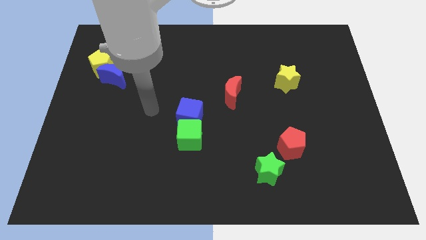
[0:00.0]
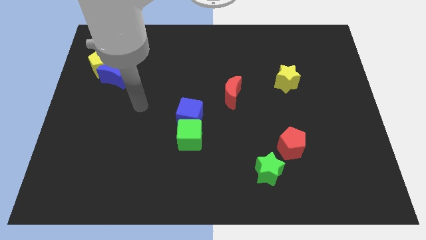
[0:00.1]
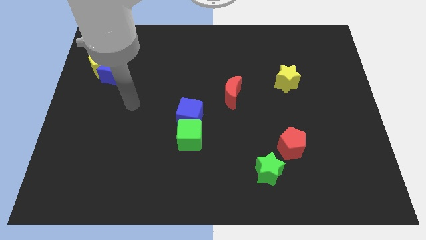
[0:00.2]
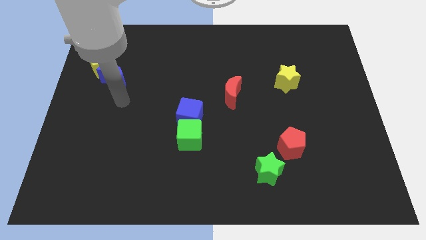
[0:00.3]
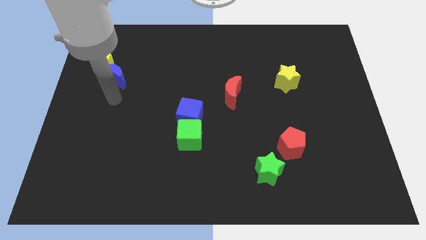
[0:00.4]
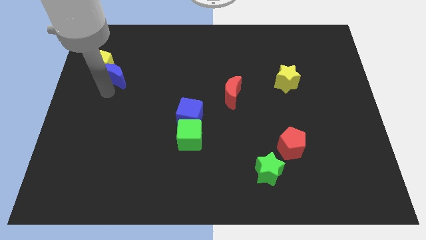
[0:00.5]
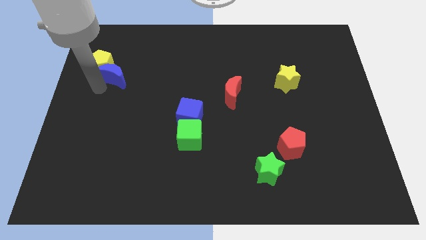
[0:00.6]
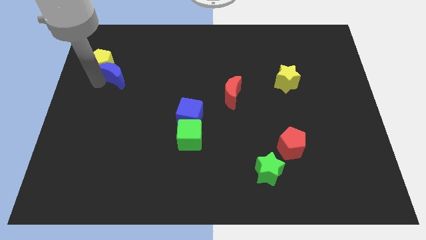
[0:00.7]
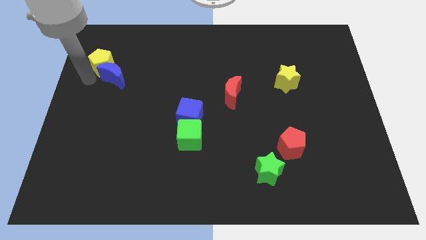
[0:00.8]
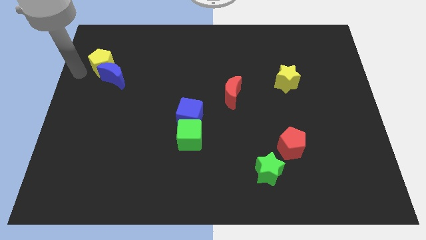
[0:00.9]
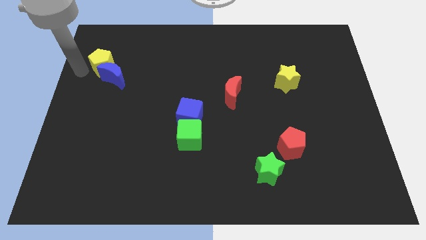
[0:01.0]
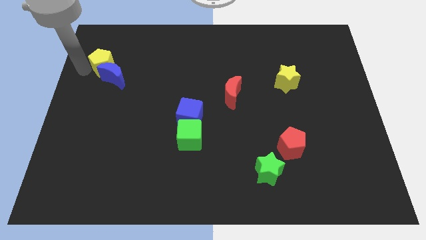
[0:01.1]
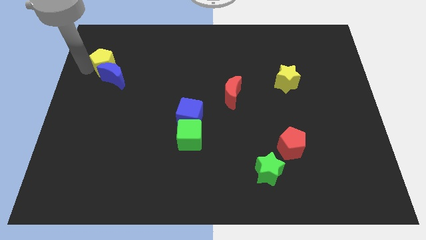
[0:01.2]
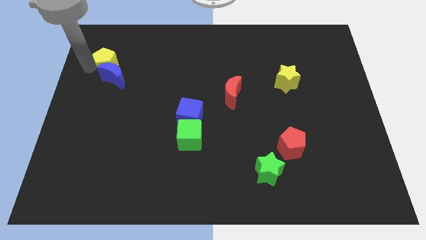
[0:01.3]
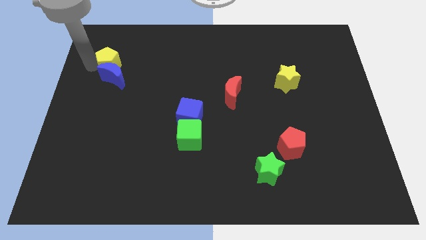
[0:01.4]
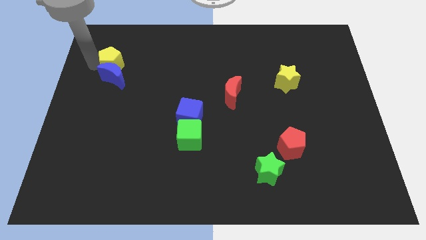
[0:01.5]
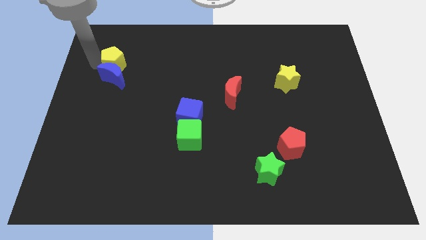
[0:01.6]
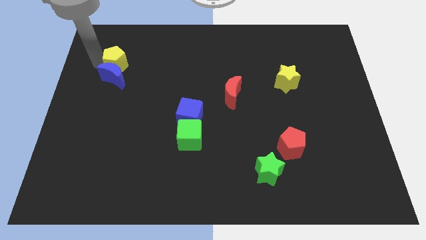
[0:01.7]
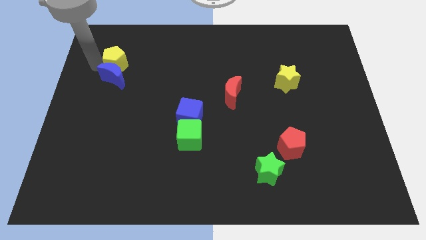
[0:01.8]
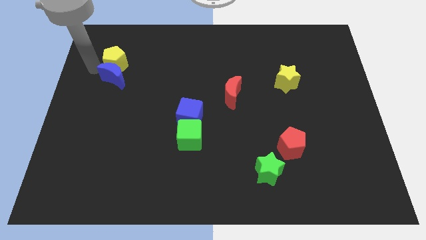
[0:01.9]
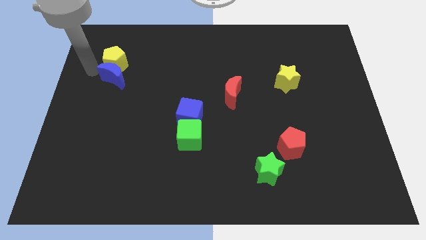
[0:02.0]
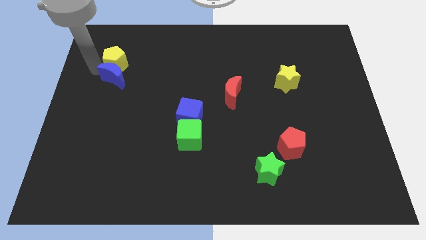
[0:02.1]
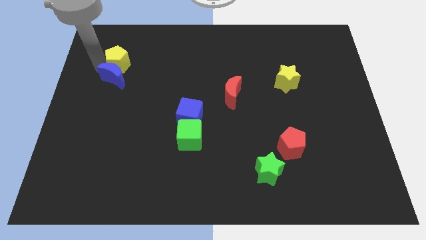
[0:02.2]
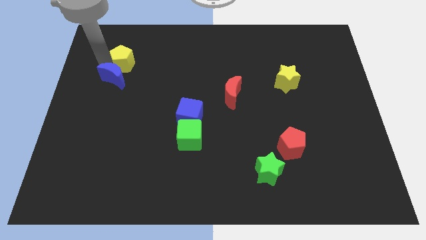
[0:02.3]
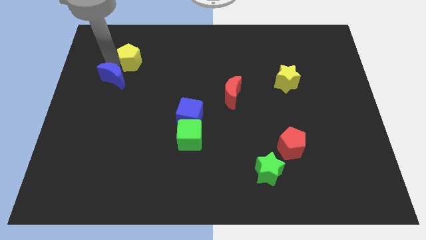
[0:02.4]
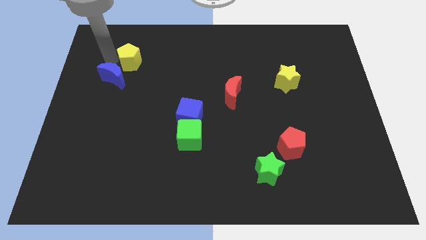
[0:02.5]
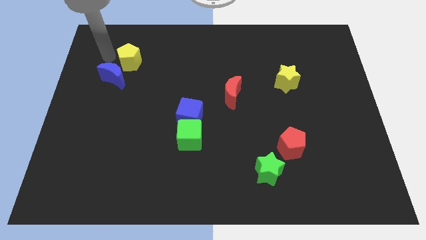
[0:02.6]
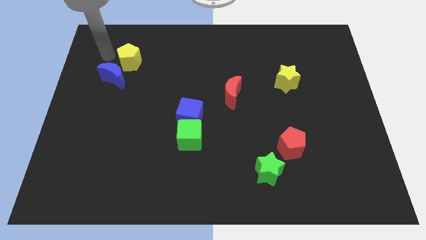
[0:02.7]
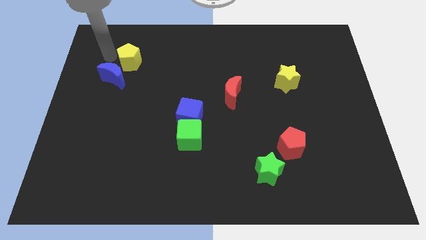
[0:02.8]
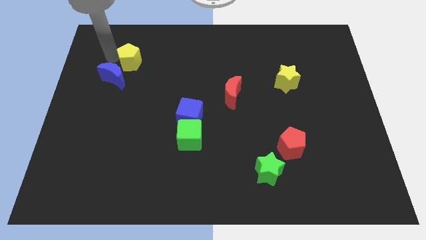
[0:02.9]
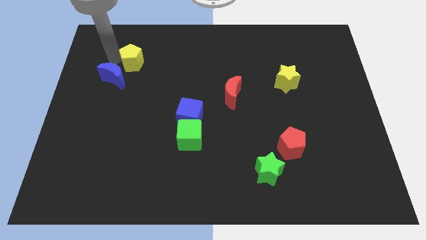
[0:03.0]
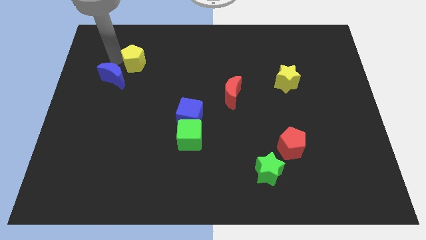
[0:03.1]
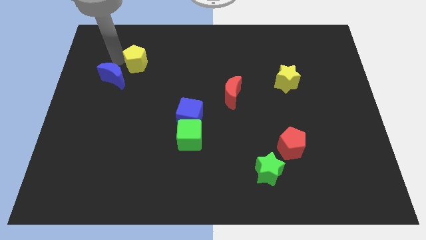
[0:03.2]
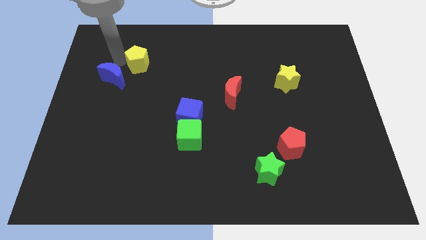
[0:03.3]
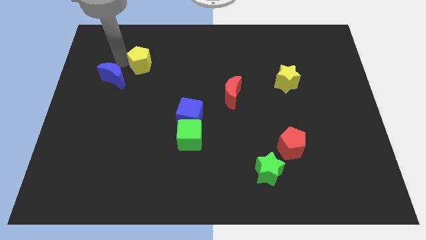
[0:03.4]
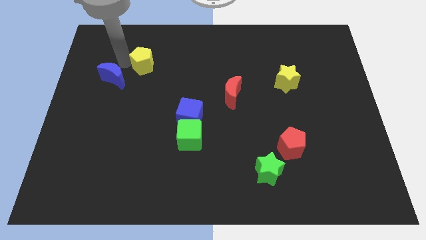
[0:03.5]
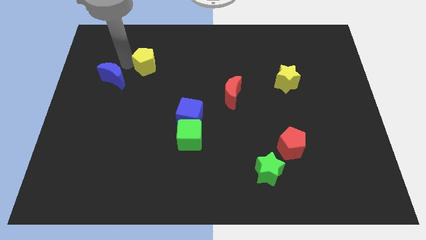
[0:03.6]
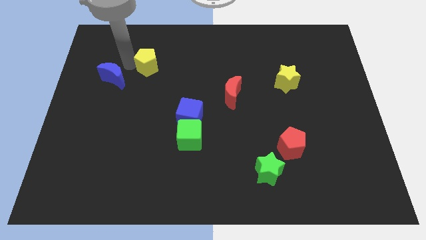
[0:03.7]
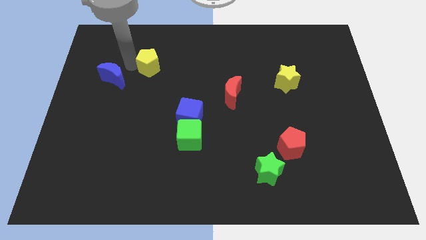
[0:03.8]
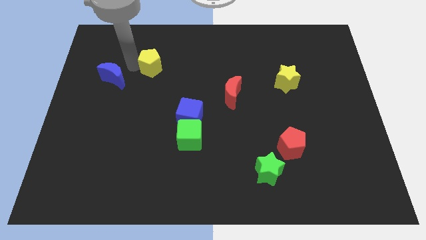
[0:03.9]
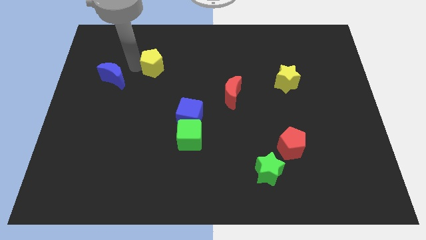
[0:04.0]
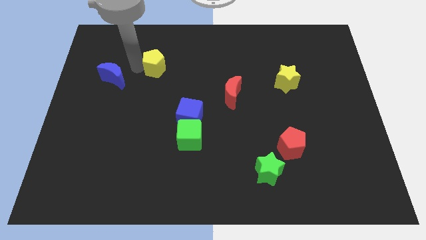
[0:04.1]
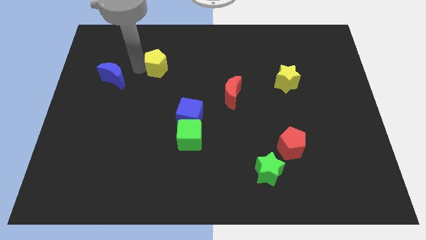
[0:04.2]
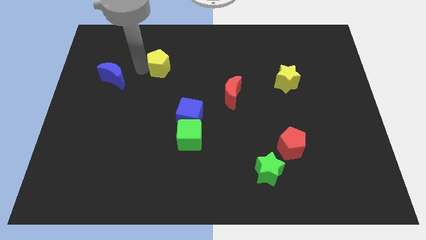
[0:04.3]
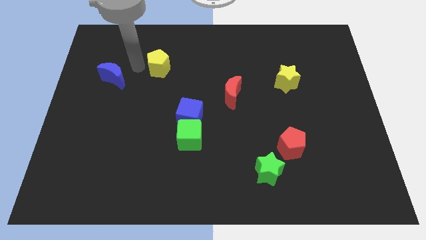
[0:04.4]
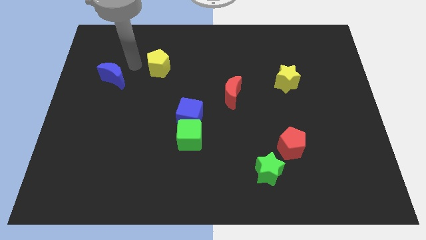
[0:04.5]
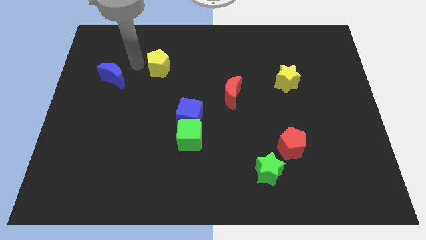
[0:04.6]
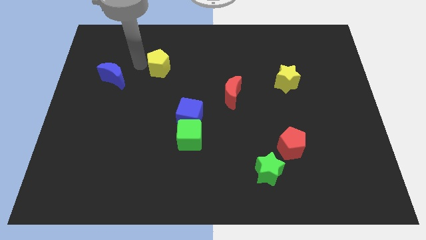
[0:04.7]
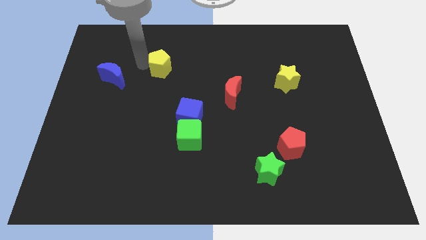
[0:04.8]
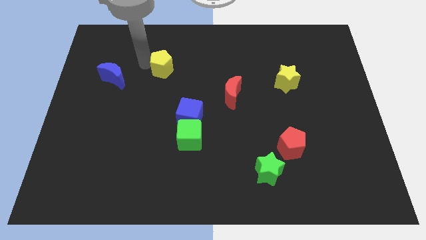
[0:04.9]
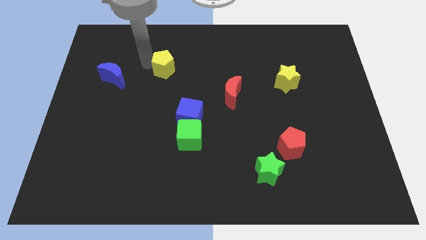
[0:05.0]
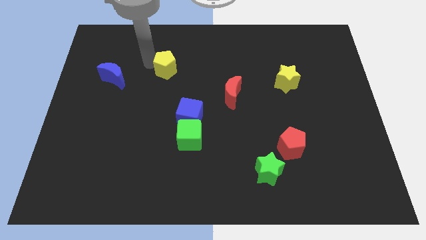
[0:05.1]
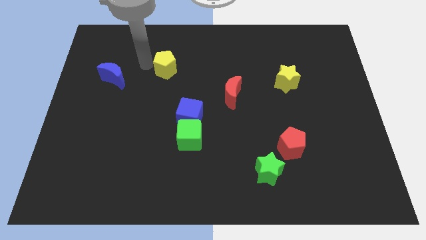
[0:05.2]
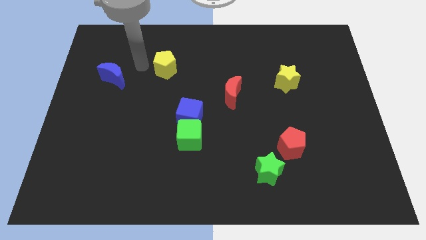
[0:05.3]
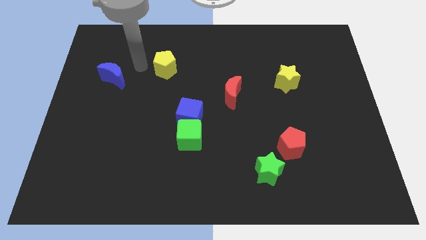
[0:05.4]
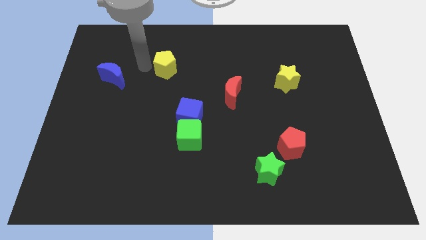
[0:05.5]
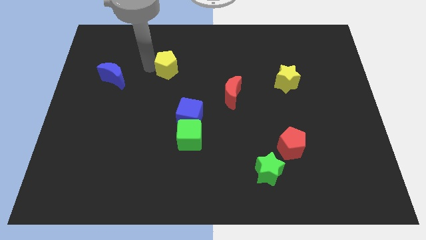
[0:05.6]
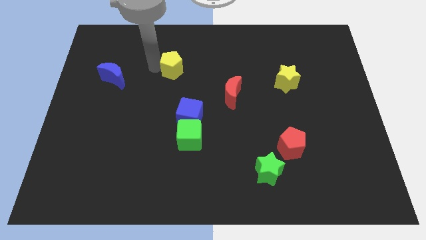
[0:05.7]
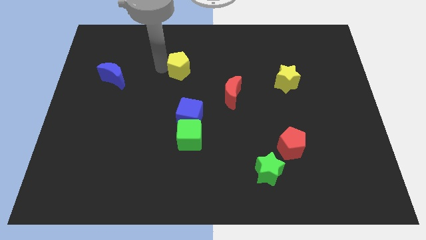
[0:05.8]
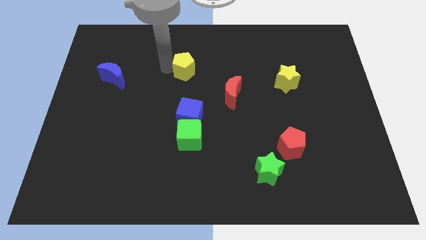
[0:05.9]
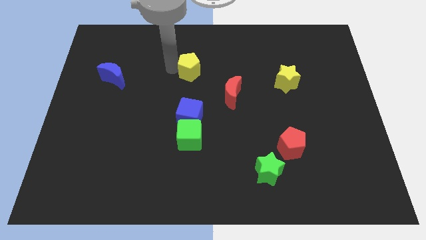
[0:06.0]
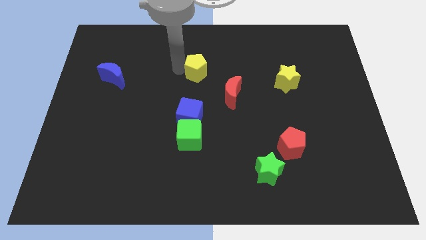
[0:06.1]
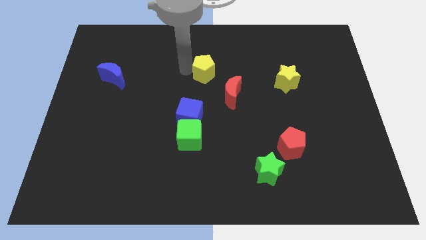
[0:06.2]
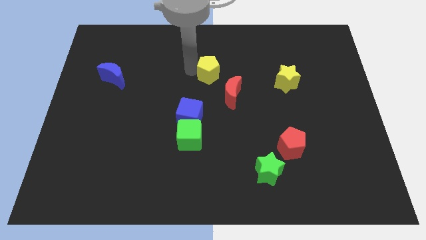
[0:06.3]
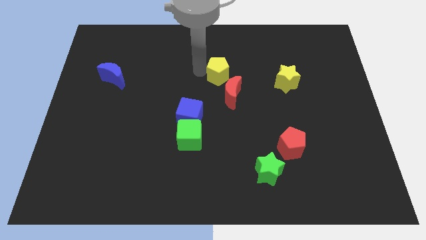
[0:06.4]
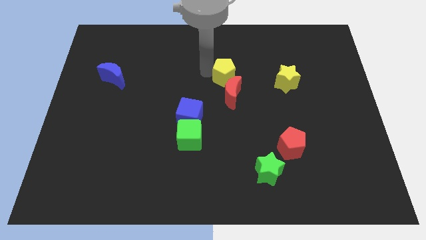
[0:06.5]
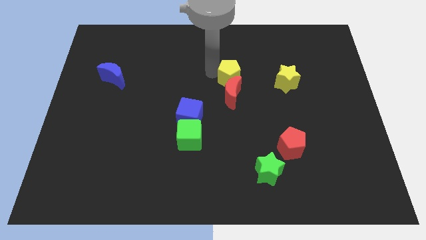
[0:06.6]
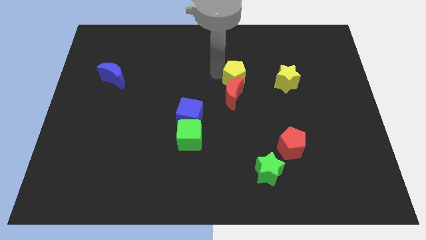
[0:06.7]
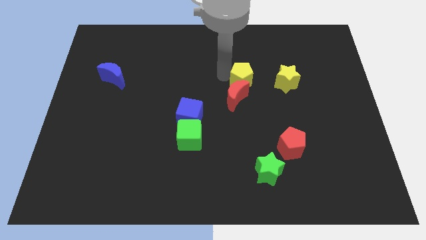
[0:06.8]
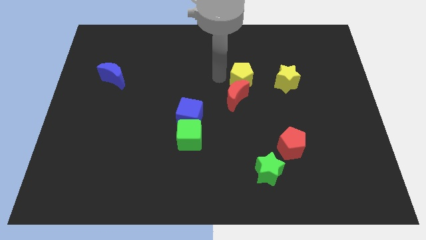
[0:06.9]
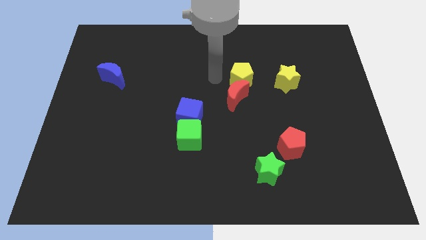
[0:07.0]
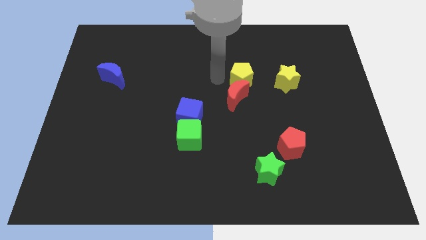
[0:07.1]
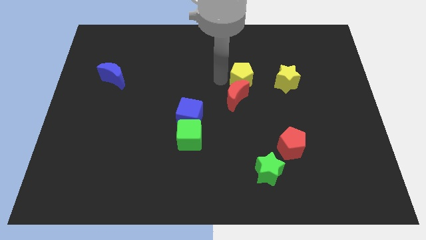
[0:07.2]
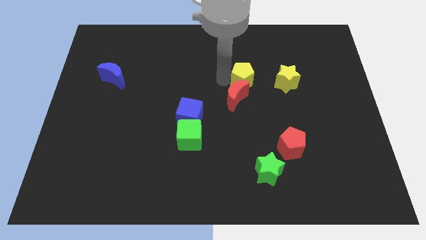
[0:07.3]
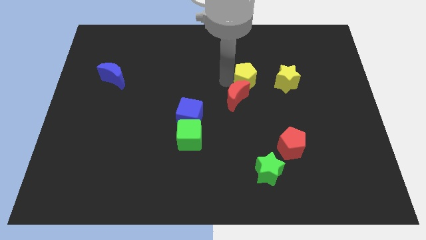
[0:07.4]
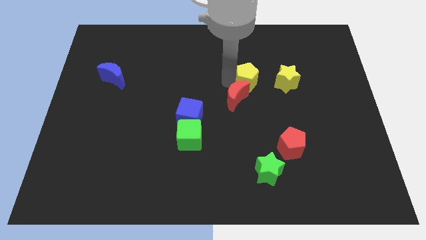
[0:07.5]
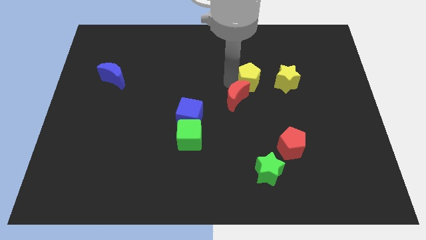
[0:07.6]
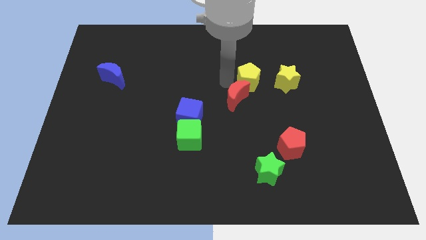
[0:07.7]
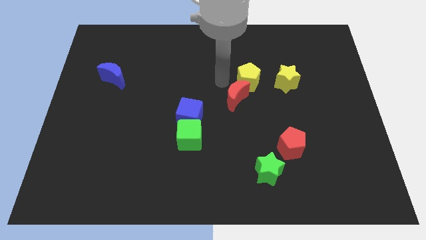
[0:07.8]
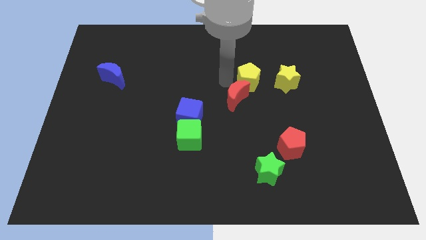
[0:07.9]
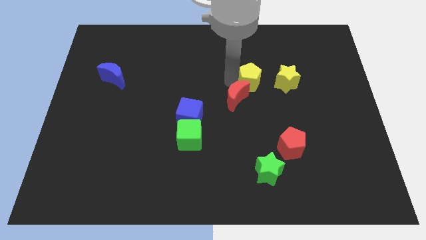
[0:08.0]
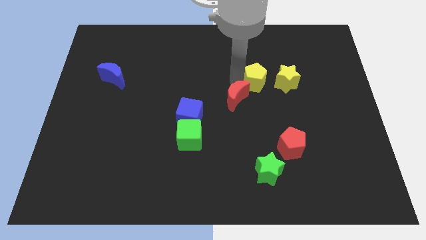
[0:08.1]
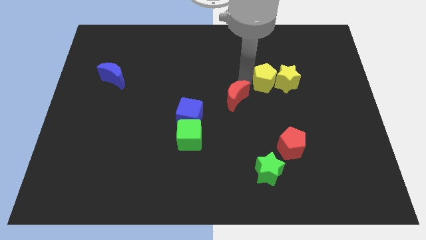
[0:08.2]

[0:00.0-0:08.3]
put the yellow pentagon close to the yellow star
